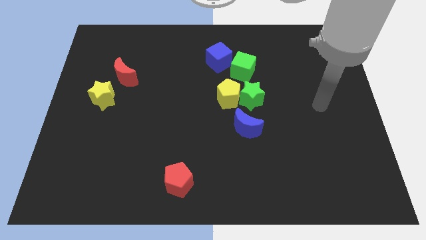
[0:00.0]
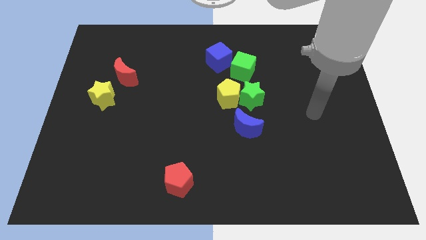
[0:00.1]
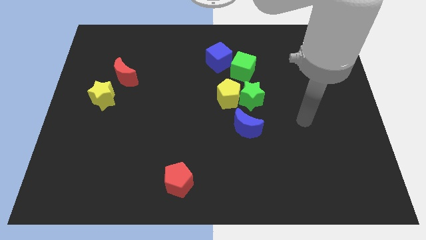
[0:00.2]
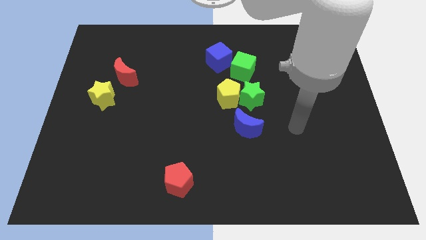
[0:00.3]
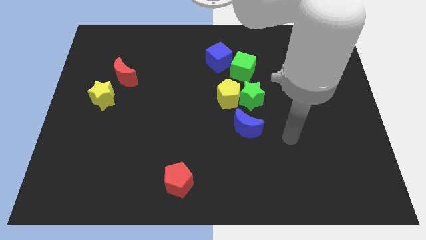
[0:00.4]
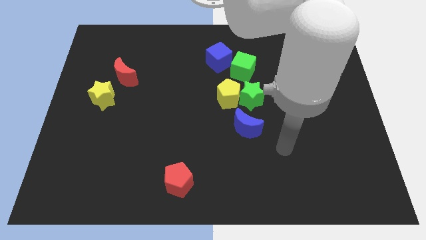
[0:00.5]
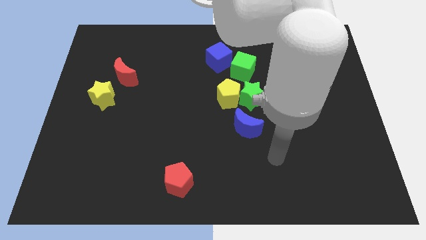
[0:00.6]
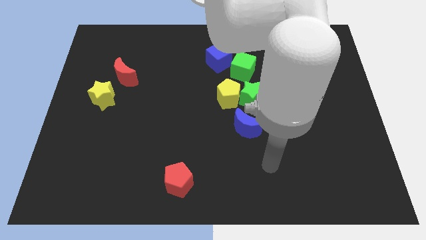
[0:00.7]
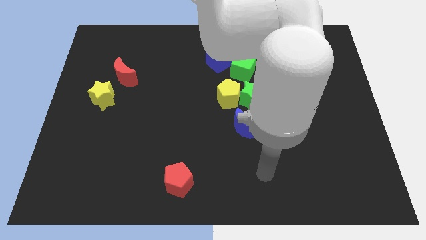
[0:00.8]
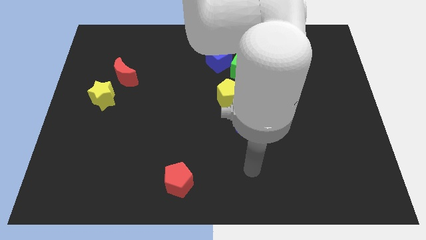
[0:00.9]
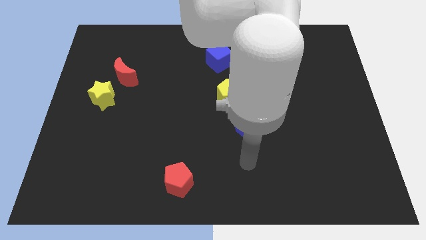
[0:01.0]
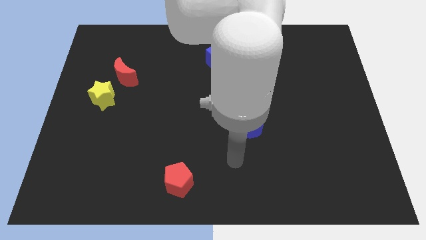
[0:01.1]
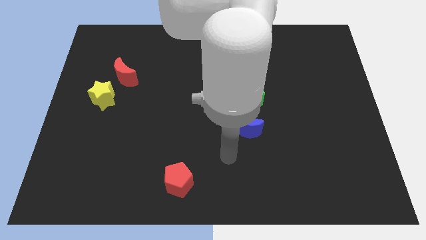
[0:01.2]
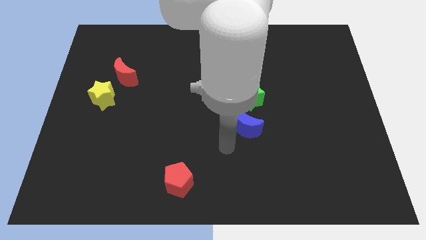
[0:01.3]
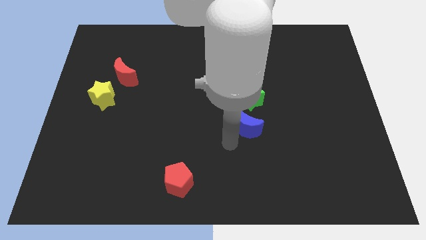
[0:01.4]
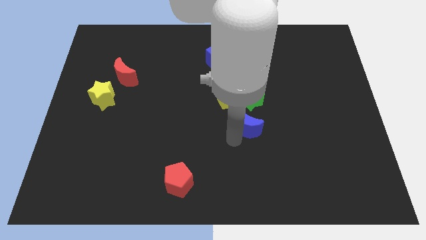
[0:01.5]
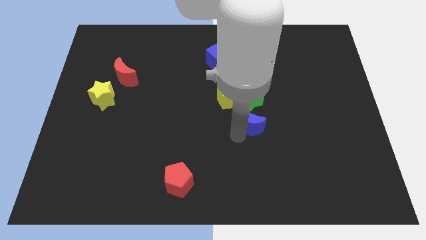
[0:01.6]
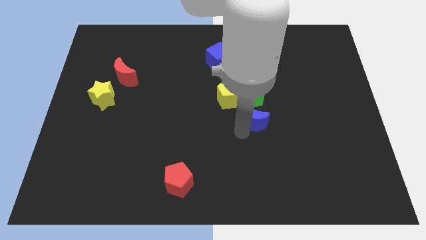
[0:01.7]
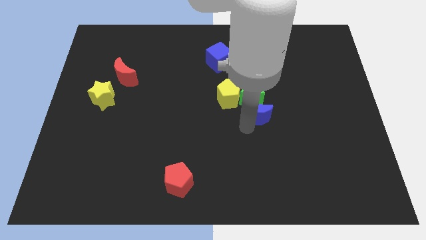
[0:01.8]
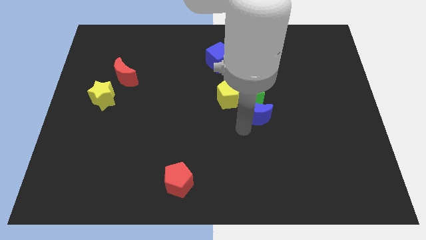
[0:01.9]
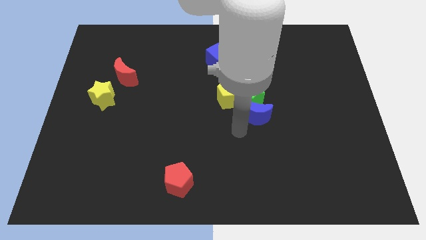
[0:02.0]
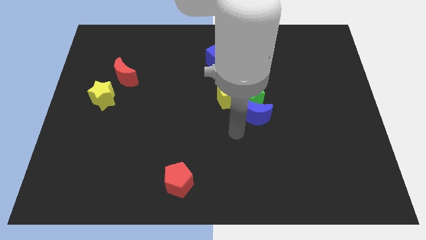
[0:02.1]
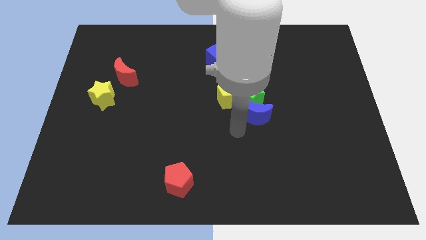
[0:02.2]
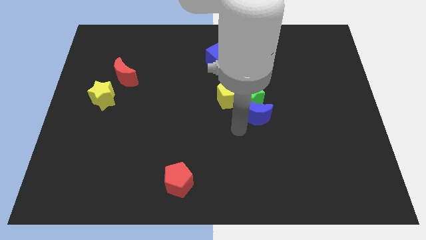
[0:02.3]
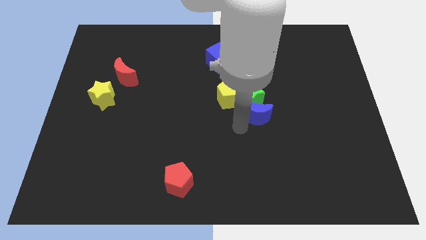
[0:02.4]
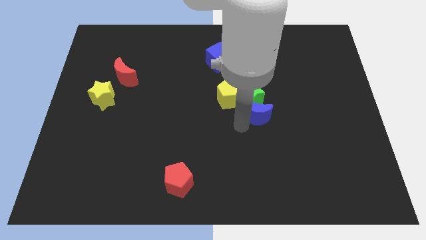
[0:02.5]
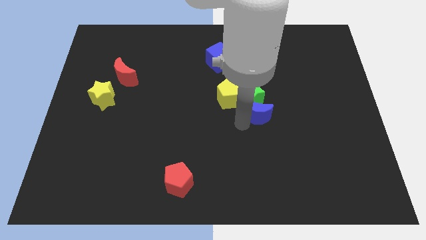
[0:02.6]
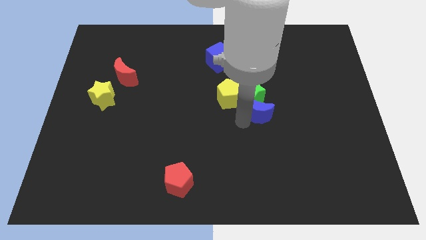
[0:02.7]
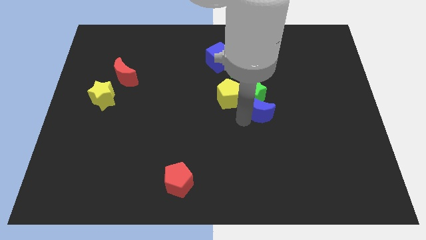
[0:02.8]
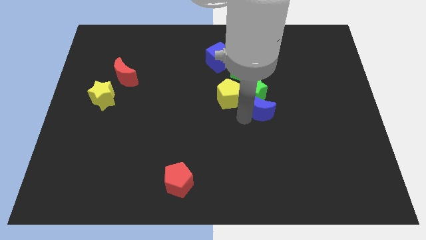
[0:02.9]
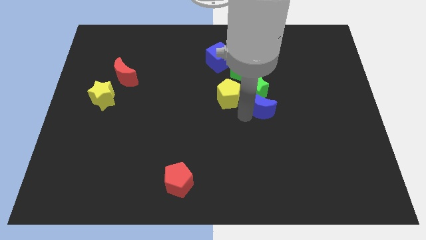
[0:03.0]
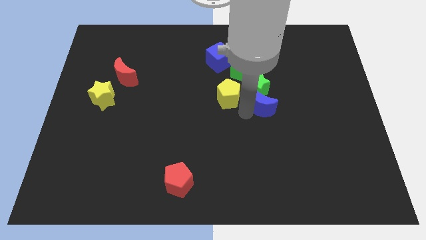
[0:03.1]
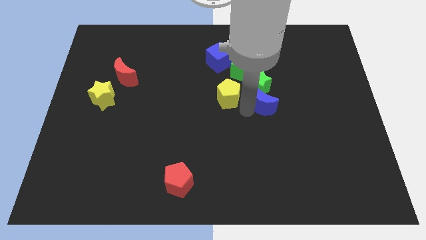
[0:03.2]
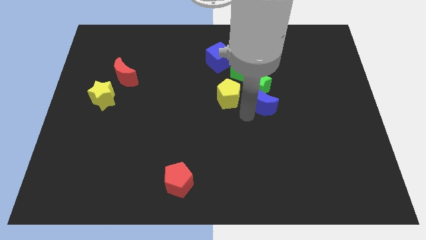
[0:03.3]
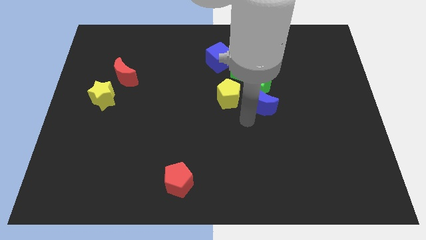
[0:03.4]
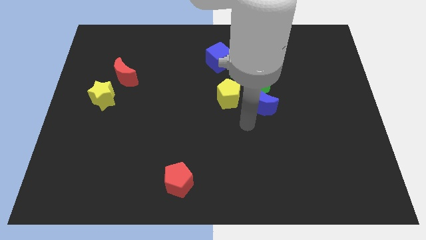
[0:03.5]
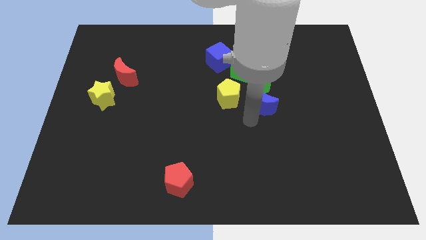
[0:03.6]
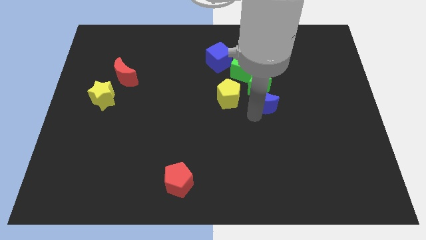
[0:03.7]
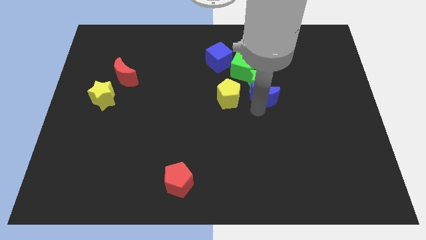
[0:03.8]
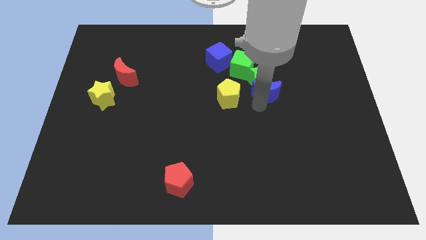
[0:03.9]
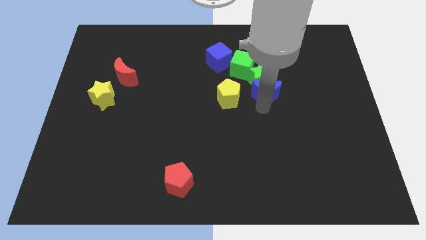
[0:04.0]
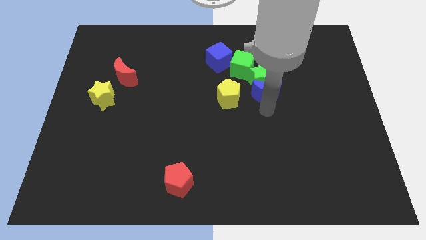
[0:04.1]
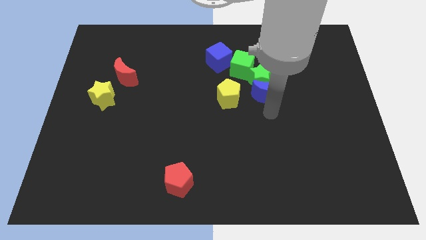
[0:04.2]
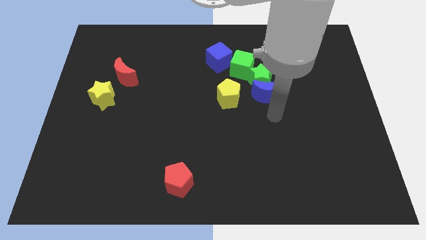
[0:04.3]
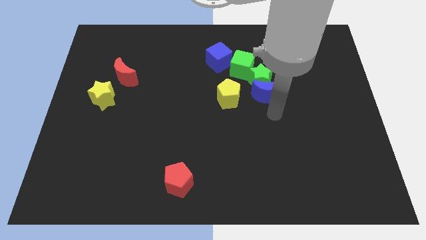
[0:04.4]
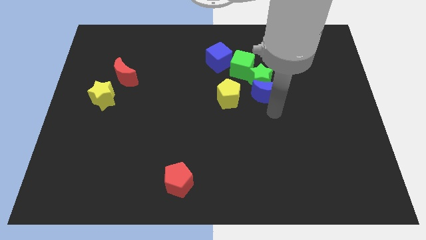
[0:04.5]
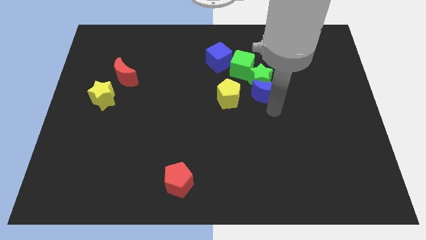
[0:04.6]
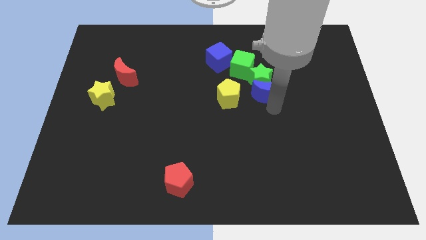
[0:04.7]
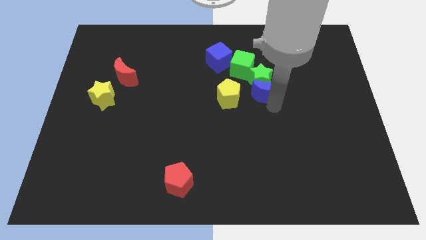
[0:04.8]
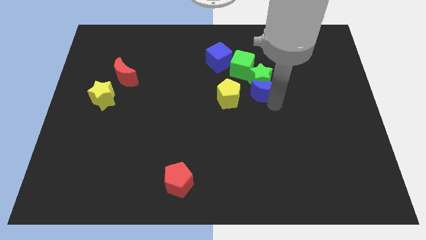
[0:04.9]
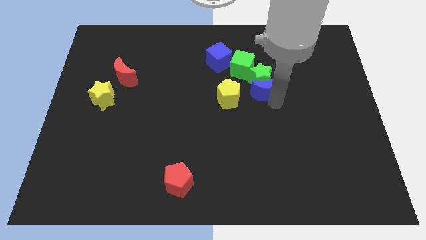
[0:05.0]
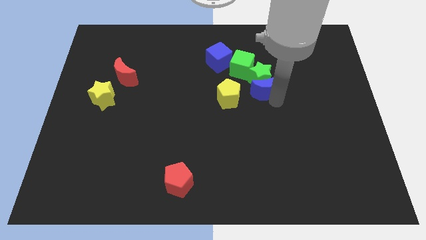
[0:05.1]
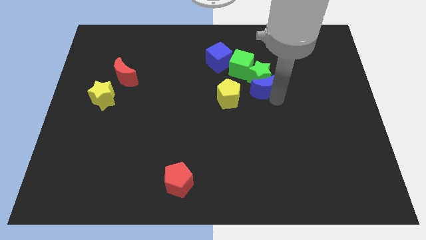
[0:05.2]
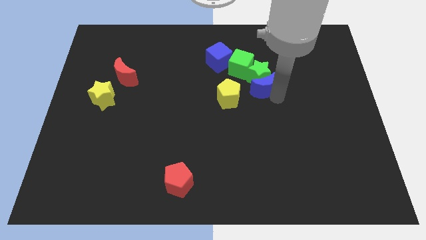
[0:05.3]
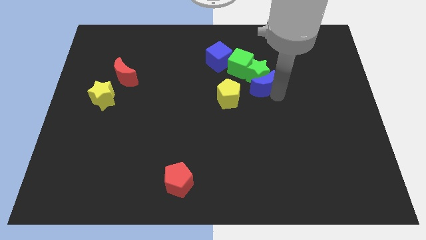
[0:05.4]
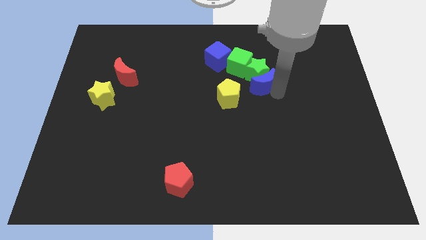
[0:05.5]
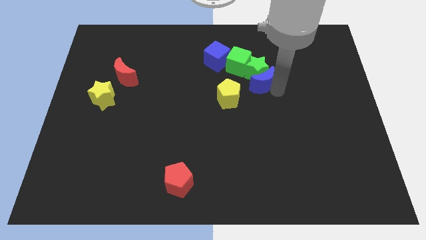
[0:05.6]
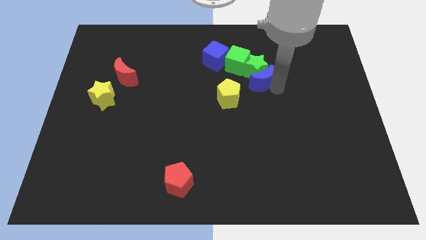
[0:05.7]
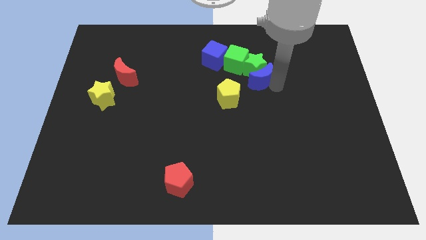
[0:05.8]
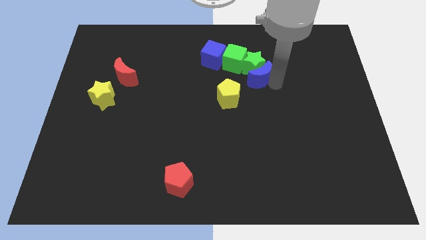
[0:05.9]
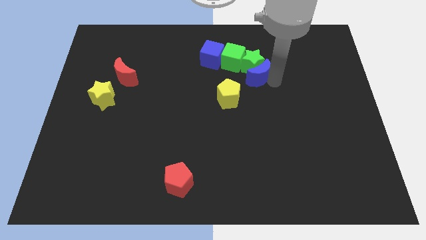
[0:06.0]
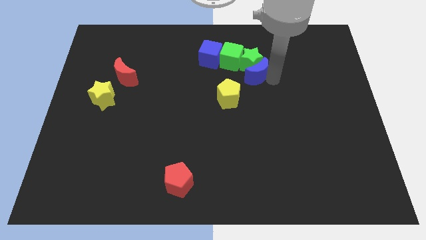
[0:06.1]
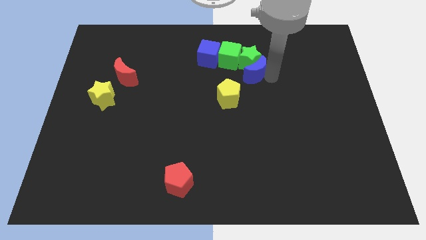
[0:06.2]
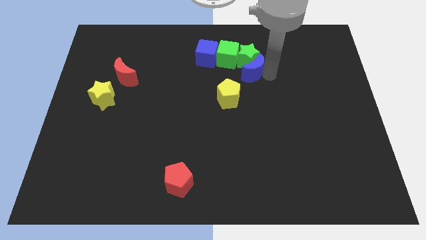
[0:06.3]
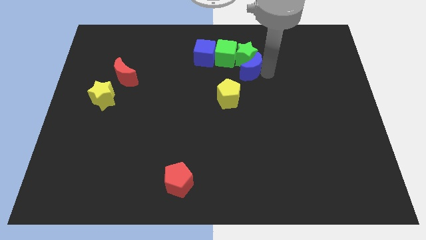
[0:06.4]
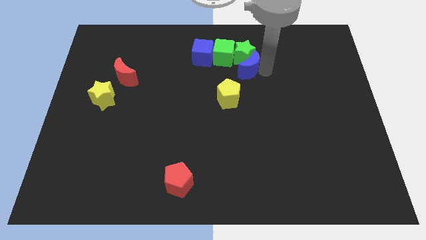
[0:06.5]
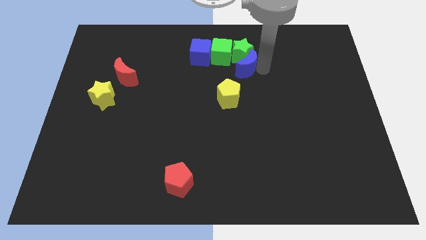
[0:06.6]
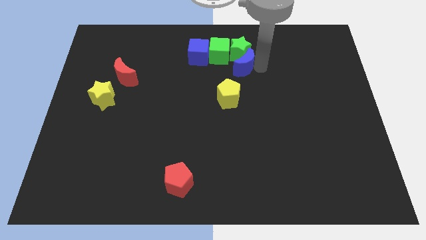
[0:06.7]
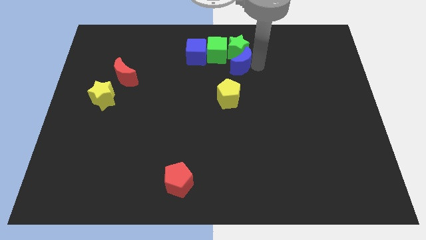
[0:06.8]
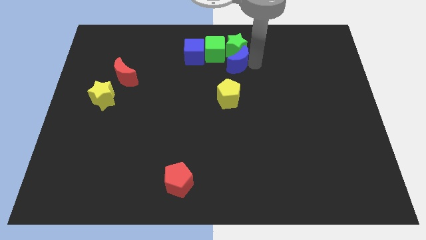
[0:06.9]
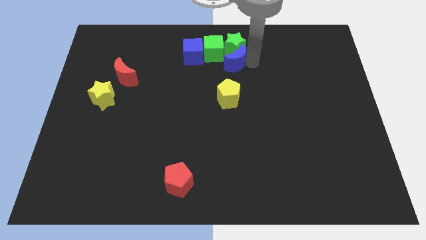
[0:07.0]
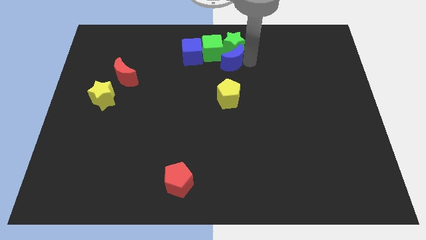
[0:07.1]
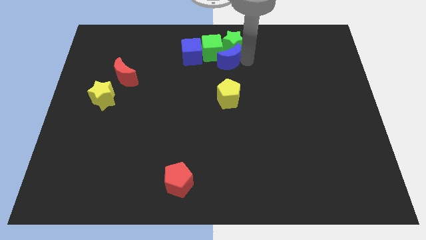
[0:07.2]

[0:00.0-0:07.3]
push the blue moon towards the green cube

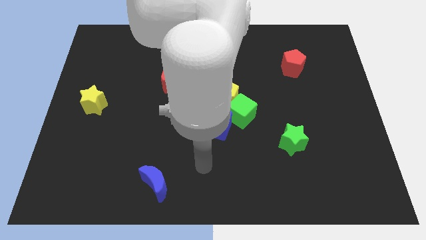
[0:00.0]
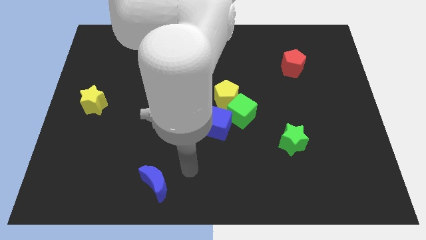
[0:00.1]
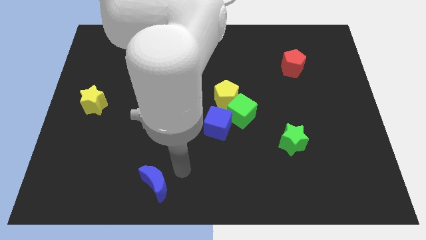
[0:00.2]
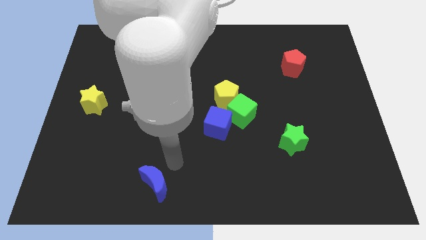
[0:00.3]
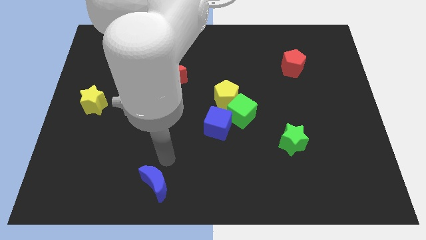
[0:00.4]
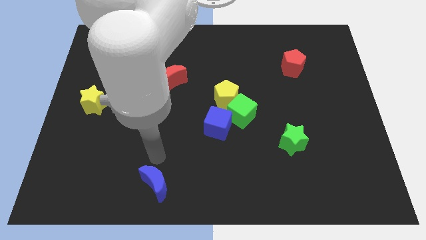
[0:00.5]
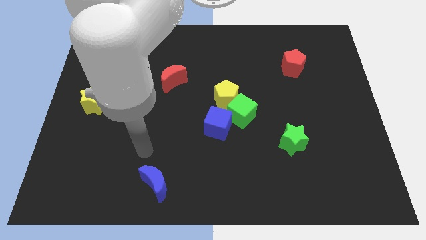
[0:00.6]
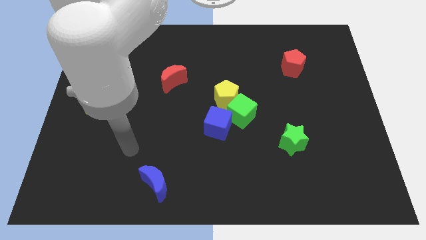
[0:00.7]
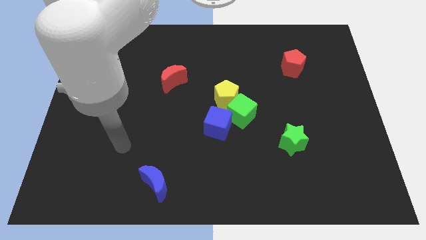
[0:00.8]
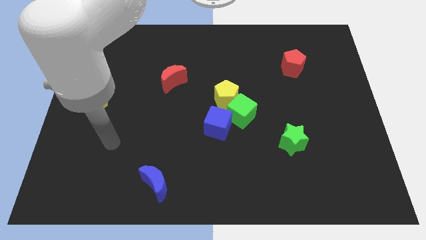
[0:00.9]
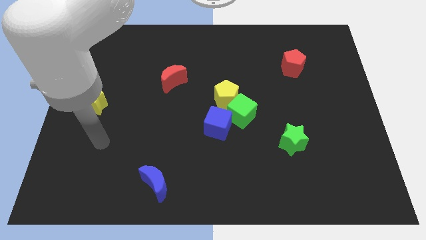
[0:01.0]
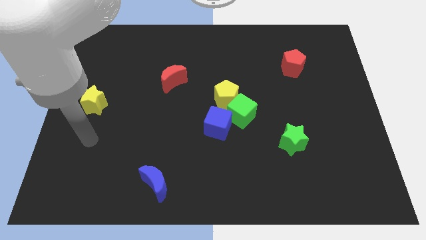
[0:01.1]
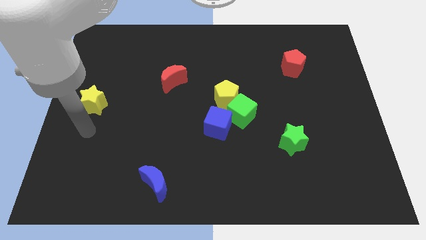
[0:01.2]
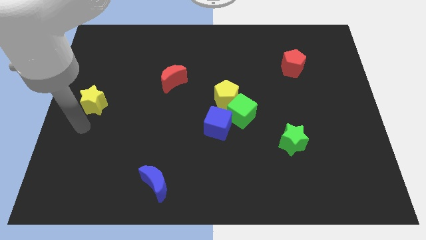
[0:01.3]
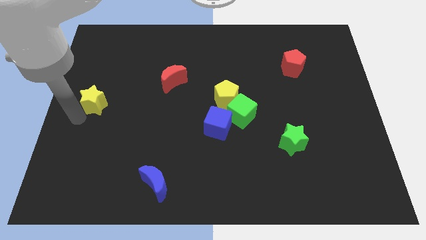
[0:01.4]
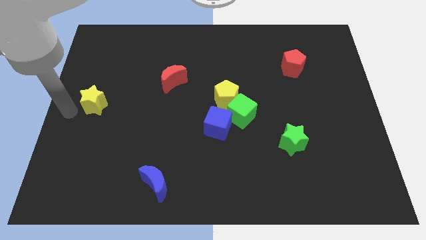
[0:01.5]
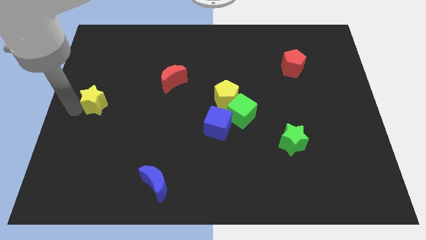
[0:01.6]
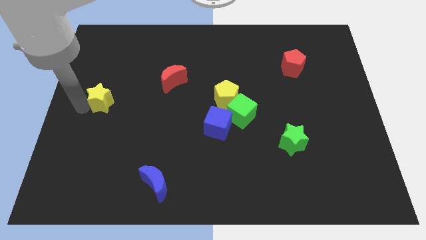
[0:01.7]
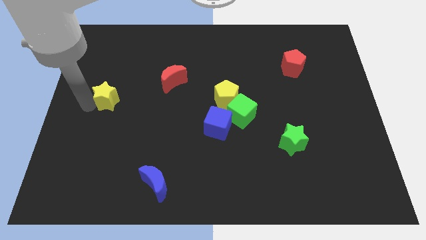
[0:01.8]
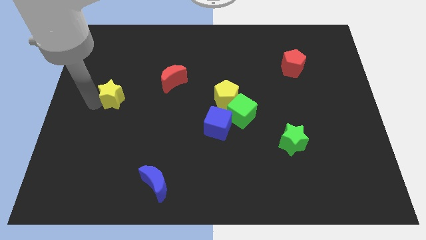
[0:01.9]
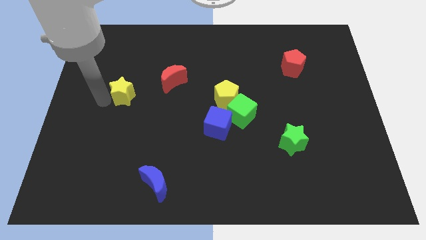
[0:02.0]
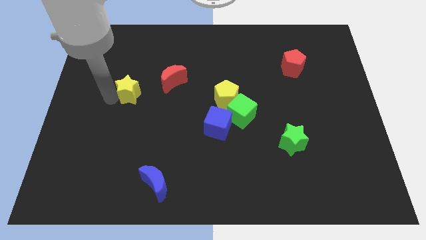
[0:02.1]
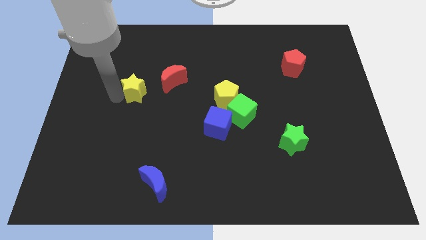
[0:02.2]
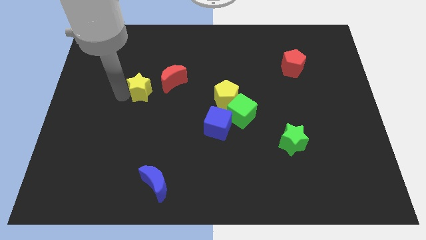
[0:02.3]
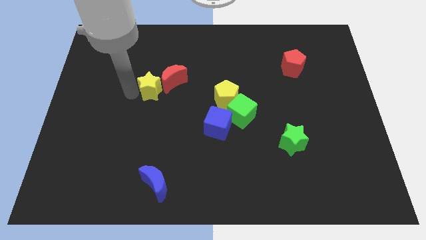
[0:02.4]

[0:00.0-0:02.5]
push the yellow star to the red moon
